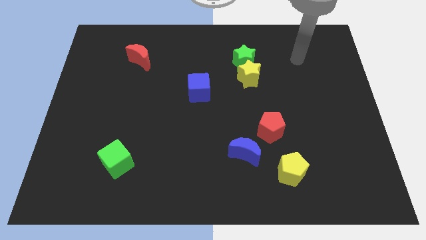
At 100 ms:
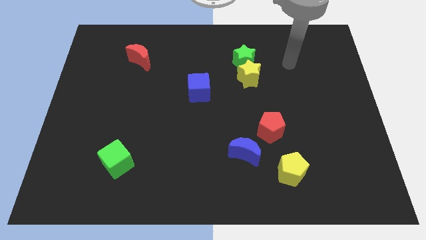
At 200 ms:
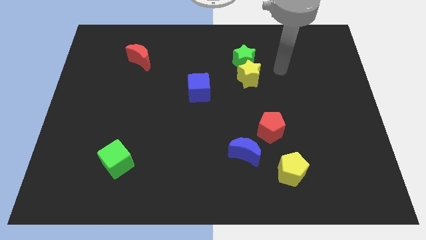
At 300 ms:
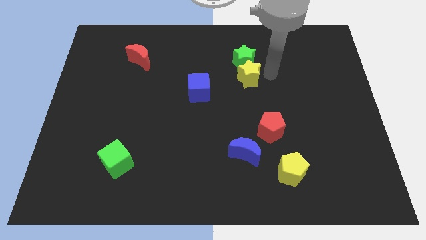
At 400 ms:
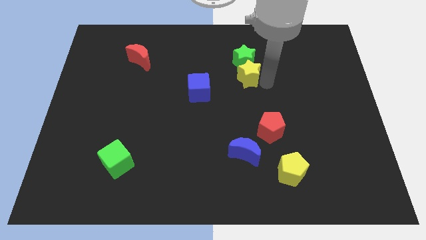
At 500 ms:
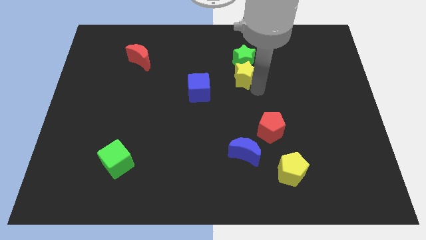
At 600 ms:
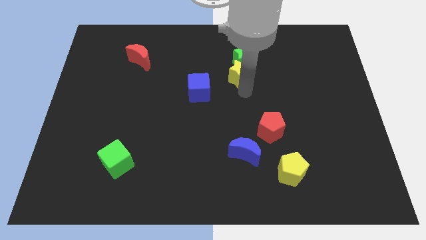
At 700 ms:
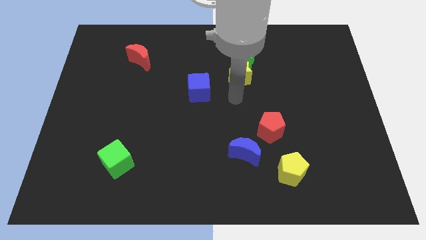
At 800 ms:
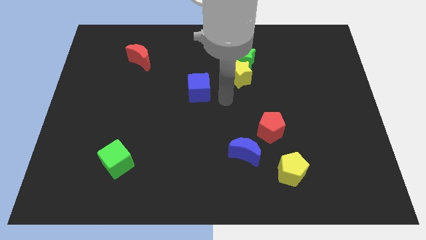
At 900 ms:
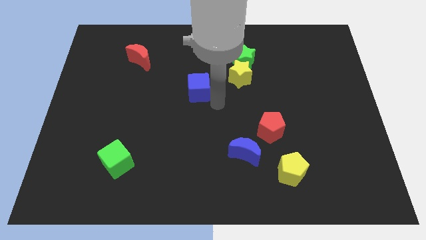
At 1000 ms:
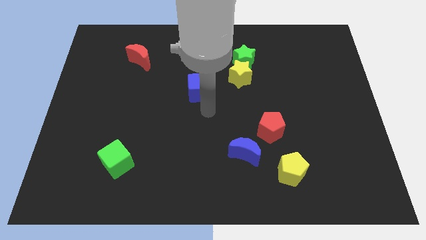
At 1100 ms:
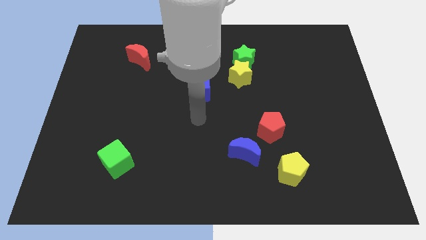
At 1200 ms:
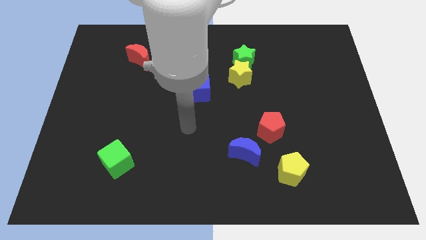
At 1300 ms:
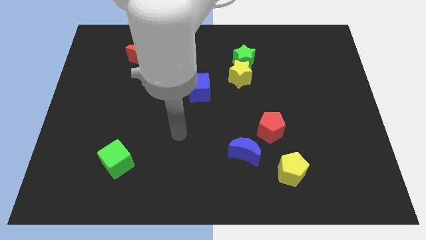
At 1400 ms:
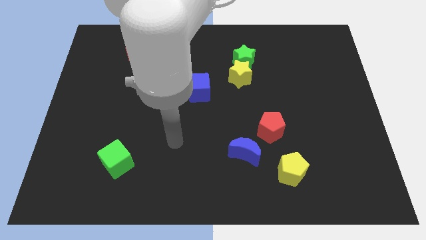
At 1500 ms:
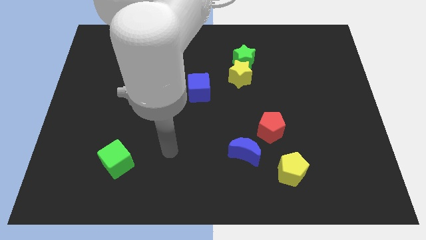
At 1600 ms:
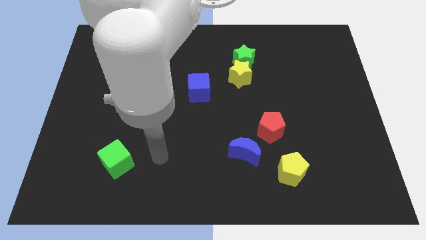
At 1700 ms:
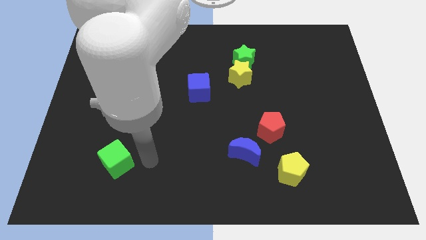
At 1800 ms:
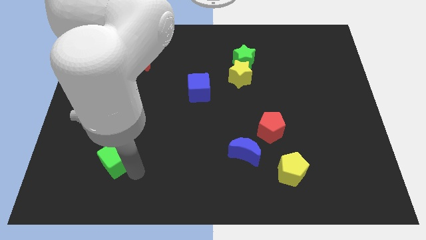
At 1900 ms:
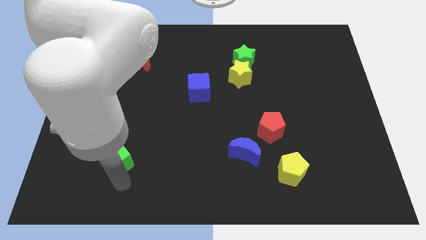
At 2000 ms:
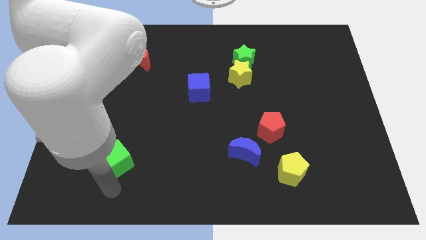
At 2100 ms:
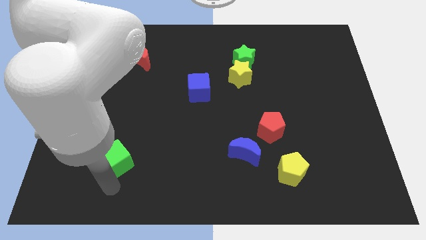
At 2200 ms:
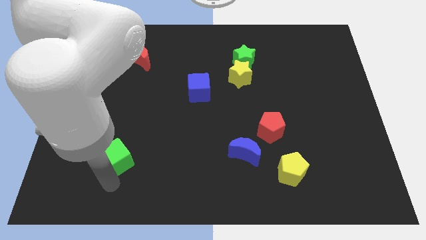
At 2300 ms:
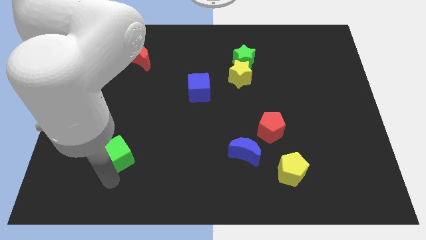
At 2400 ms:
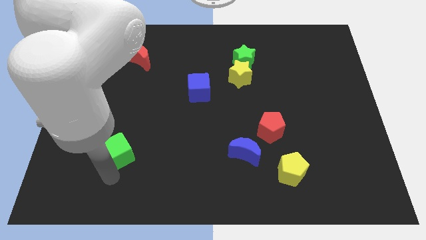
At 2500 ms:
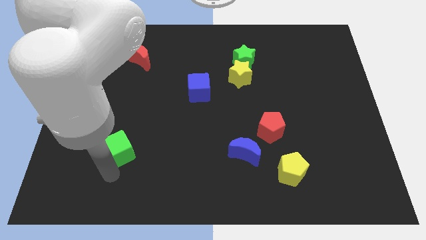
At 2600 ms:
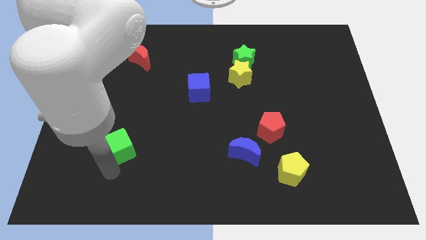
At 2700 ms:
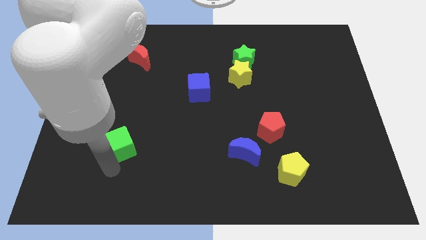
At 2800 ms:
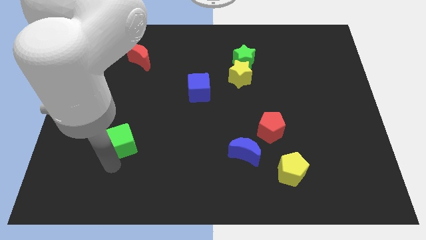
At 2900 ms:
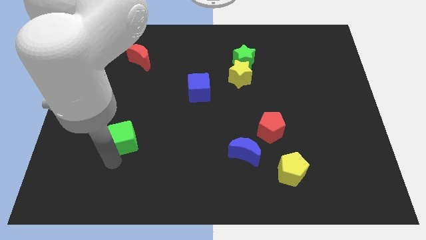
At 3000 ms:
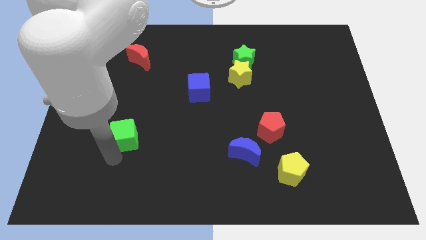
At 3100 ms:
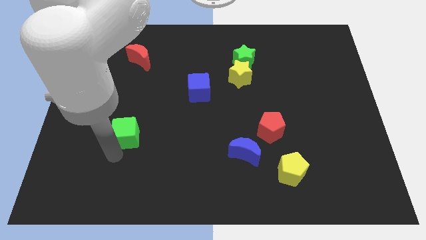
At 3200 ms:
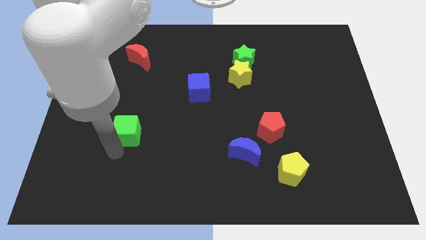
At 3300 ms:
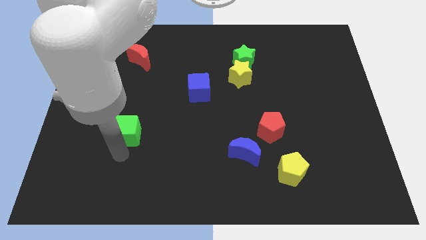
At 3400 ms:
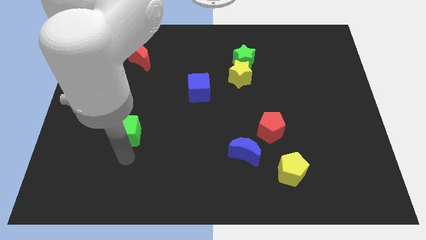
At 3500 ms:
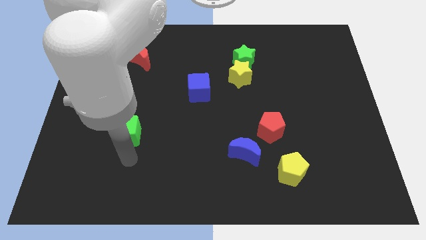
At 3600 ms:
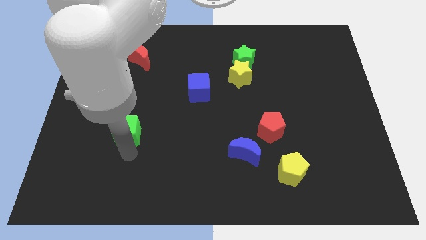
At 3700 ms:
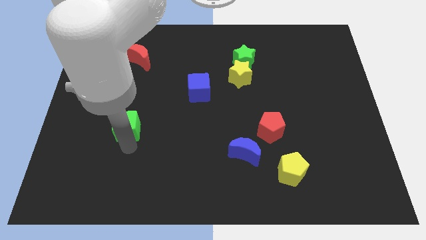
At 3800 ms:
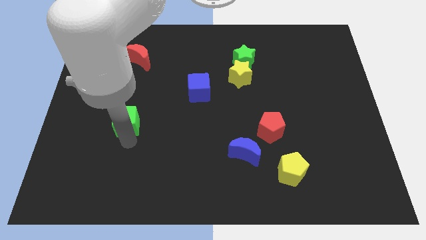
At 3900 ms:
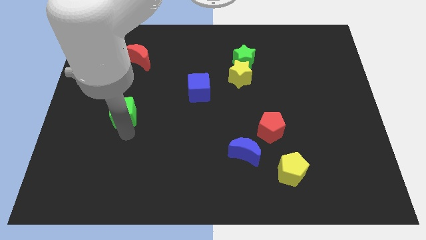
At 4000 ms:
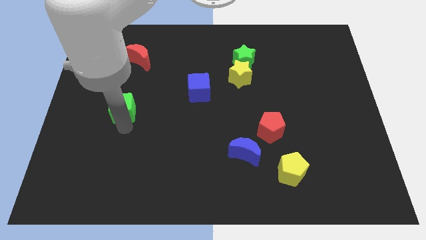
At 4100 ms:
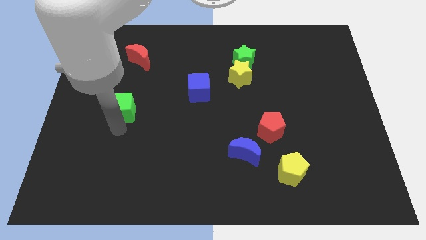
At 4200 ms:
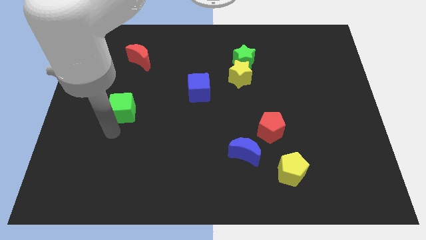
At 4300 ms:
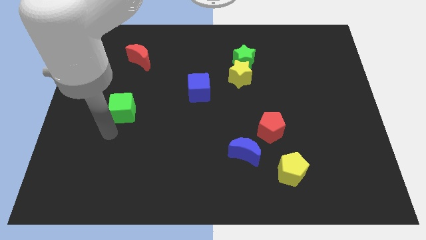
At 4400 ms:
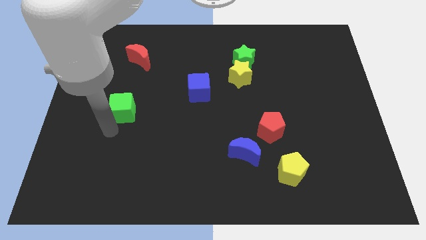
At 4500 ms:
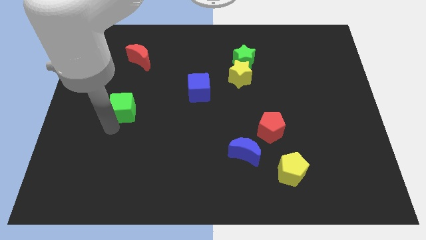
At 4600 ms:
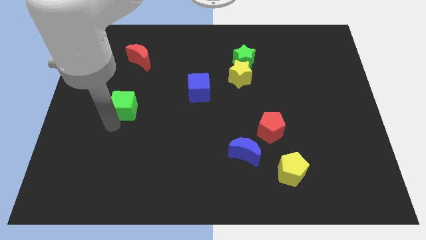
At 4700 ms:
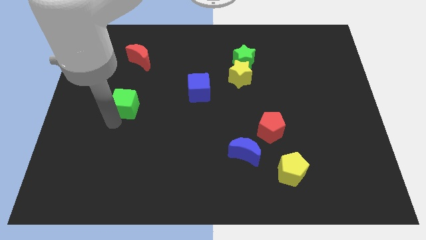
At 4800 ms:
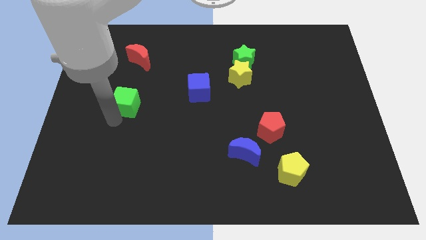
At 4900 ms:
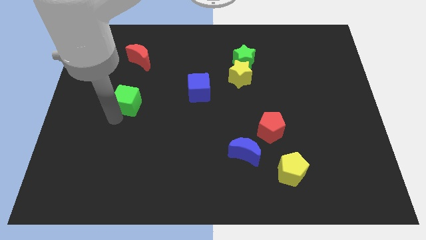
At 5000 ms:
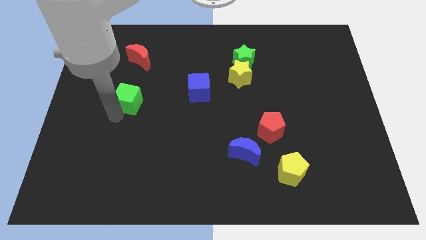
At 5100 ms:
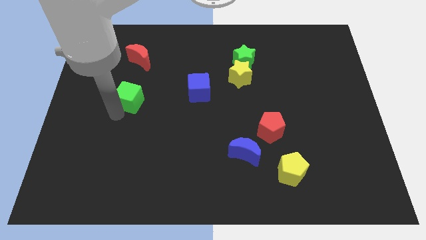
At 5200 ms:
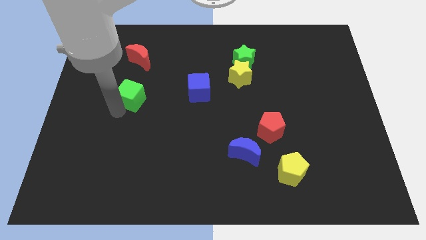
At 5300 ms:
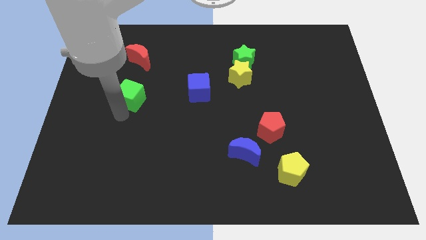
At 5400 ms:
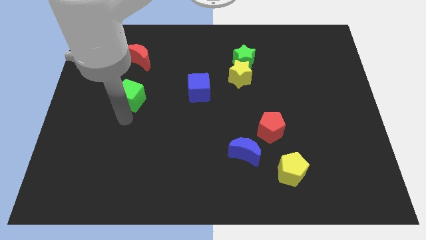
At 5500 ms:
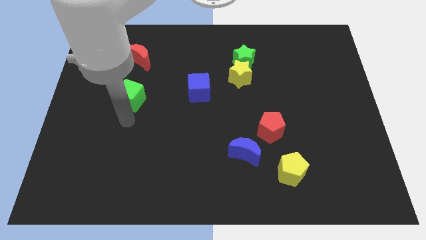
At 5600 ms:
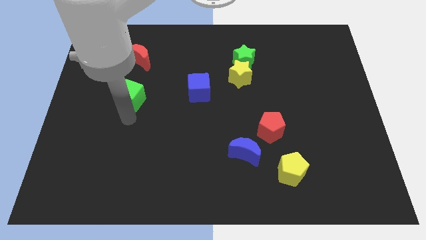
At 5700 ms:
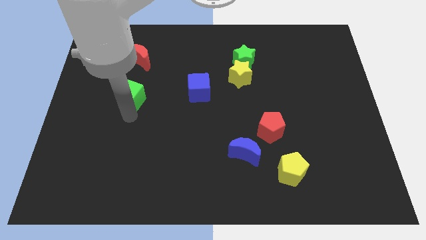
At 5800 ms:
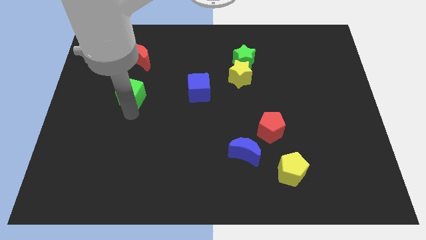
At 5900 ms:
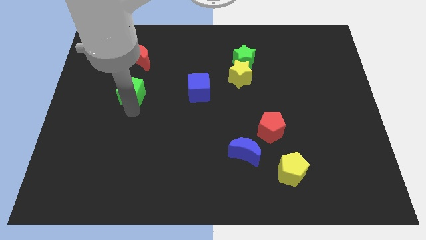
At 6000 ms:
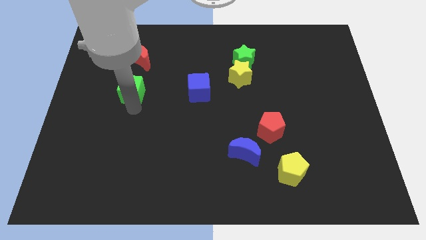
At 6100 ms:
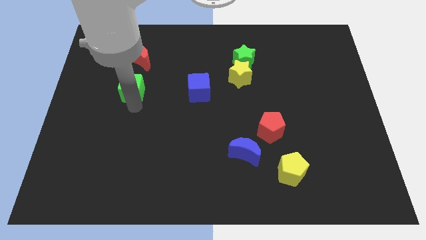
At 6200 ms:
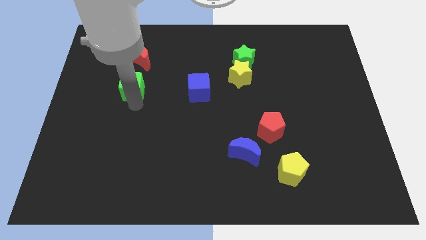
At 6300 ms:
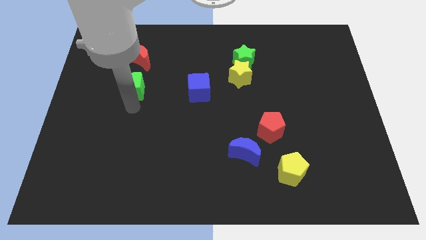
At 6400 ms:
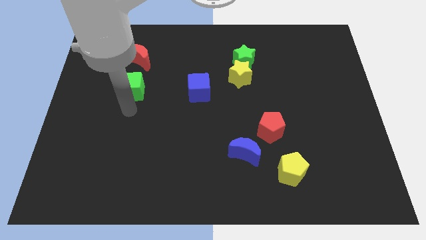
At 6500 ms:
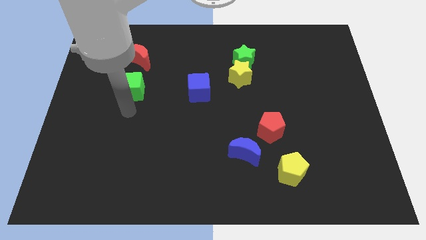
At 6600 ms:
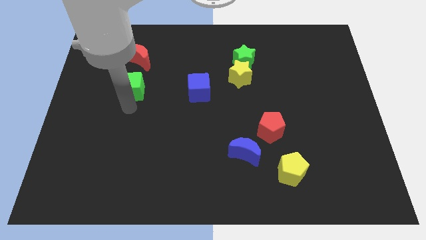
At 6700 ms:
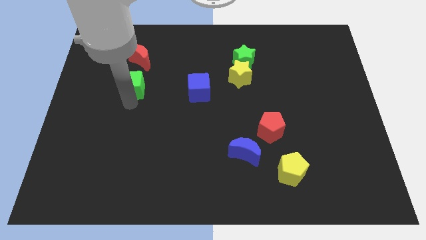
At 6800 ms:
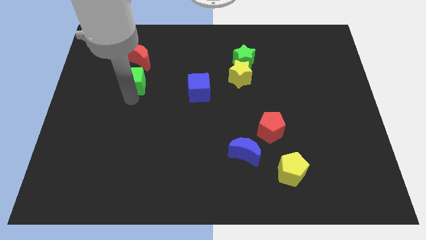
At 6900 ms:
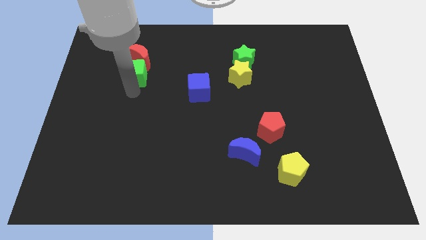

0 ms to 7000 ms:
push the green cube to the red moon

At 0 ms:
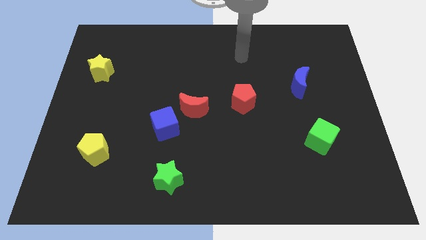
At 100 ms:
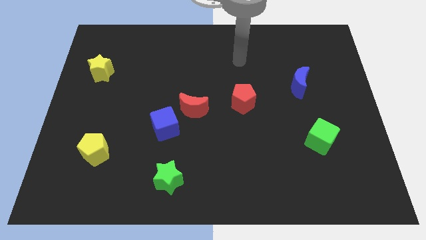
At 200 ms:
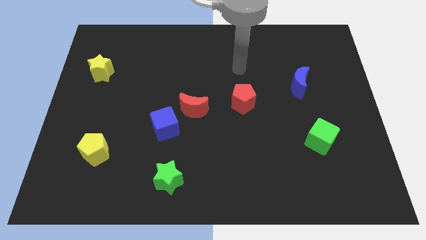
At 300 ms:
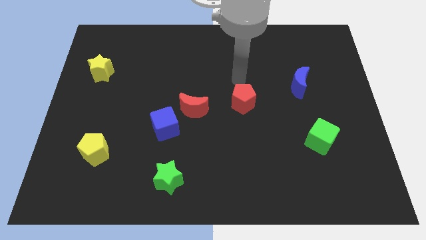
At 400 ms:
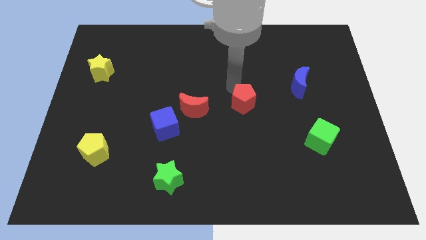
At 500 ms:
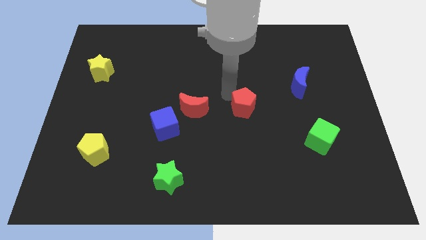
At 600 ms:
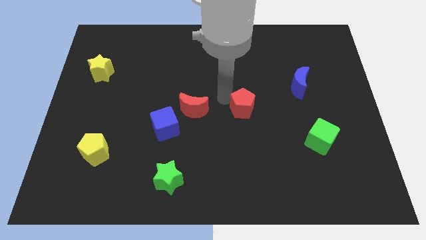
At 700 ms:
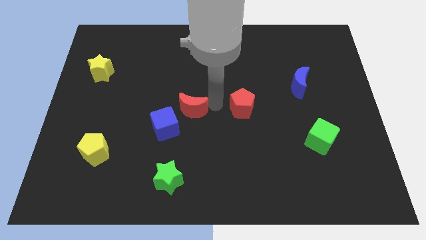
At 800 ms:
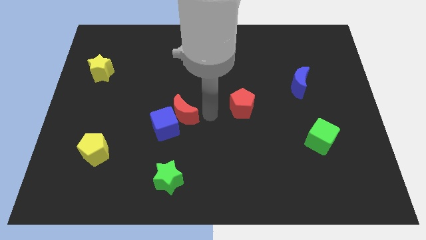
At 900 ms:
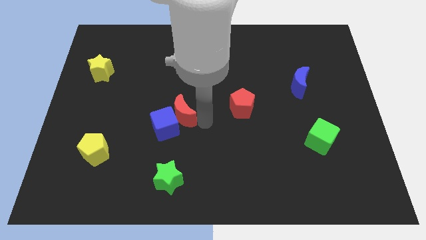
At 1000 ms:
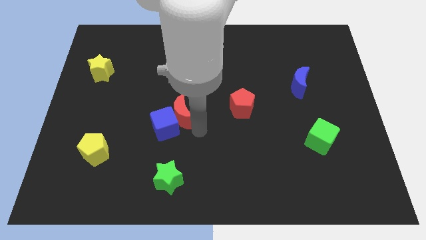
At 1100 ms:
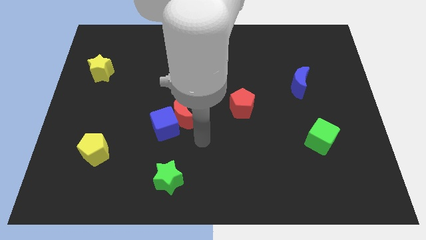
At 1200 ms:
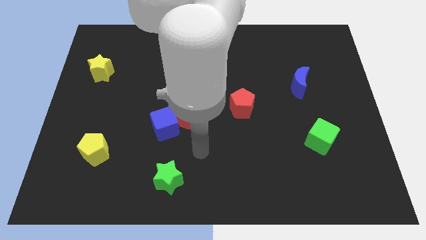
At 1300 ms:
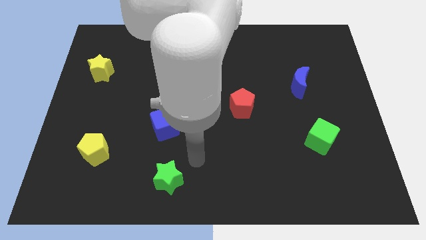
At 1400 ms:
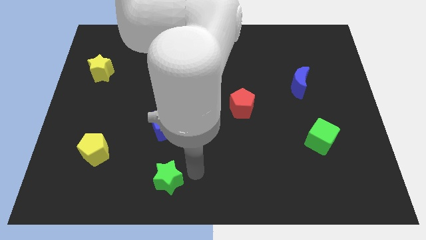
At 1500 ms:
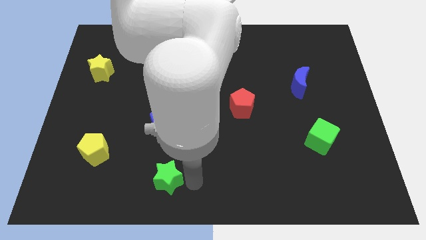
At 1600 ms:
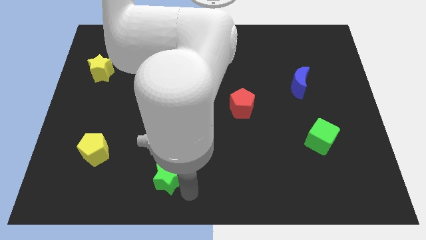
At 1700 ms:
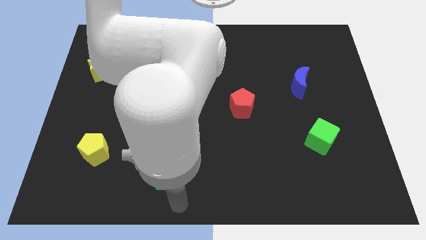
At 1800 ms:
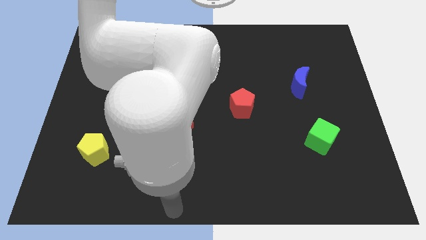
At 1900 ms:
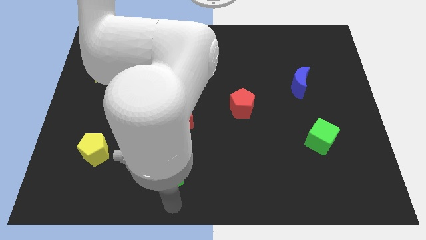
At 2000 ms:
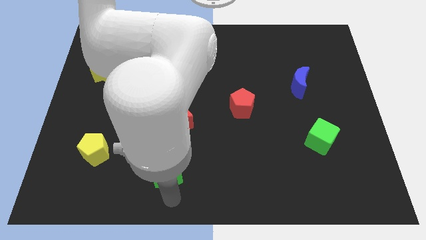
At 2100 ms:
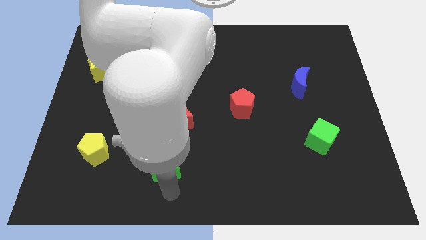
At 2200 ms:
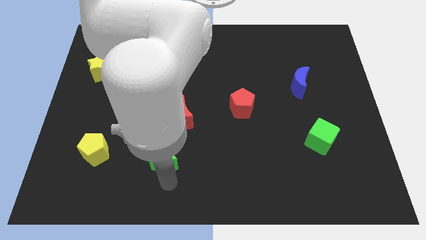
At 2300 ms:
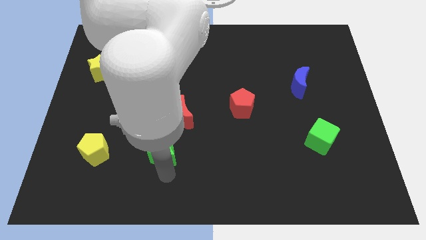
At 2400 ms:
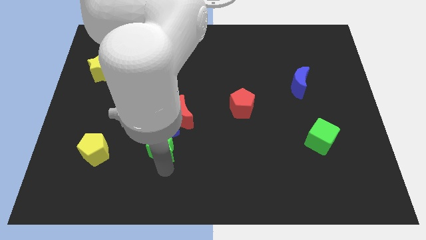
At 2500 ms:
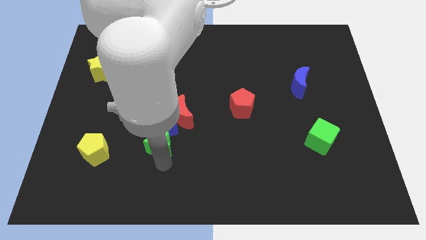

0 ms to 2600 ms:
slide the green star towards the blue cube
